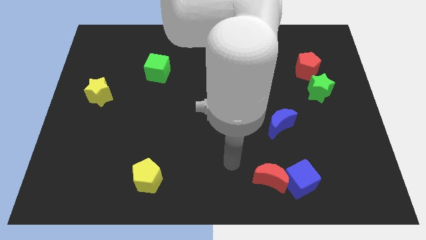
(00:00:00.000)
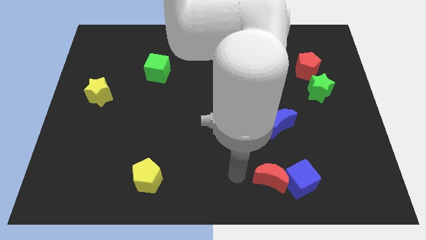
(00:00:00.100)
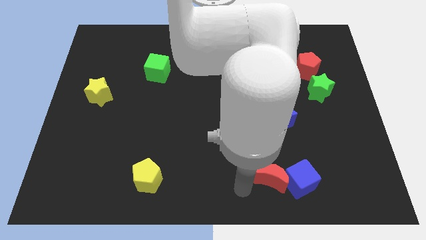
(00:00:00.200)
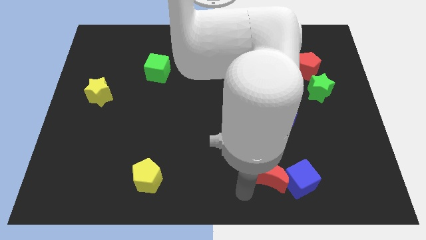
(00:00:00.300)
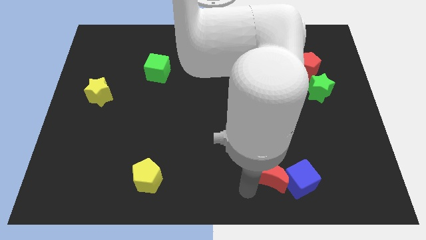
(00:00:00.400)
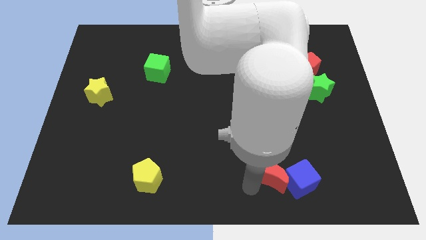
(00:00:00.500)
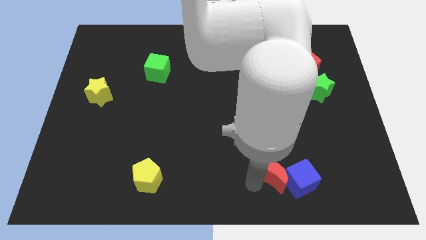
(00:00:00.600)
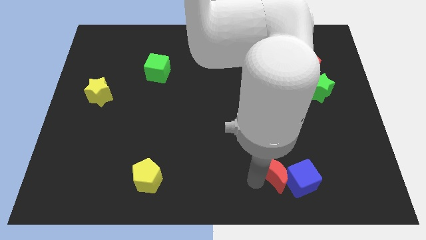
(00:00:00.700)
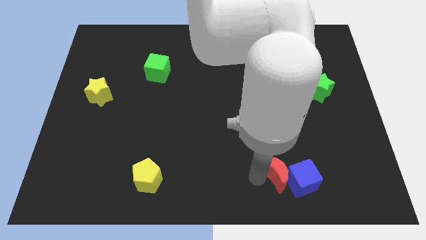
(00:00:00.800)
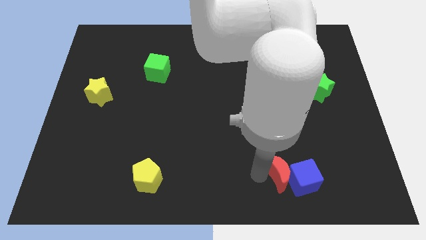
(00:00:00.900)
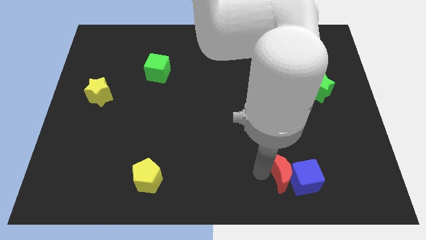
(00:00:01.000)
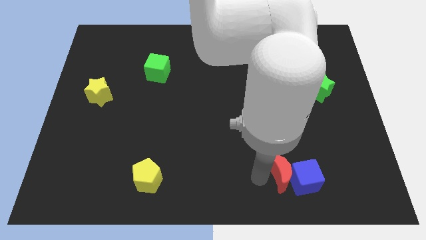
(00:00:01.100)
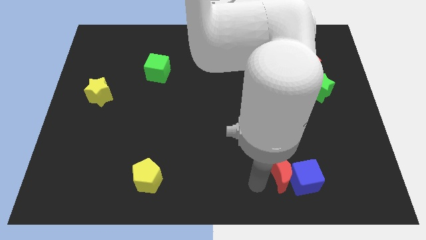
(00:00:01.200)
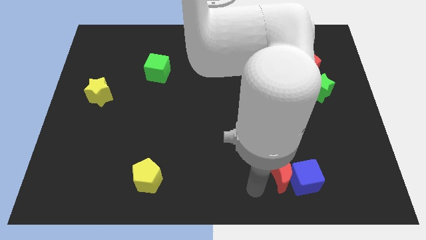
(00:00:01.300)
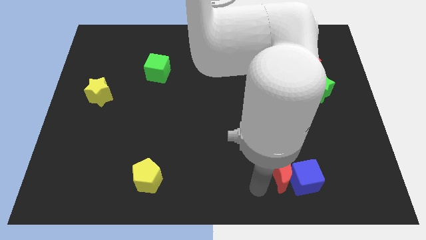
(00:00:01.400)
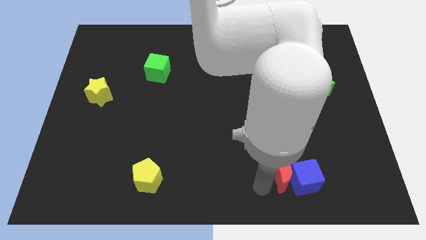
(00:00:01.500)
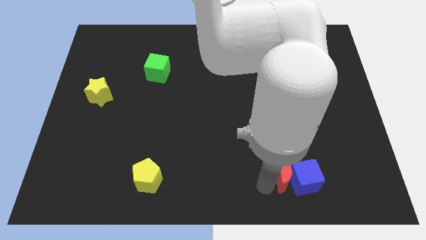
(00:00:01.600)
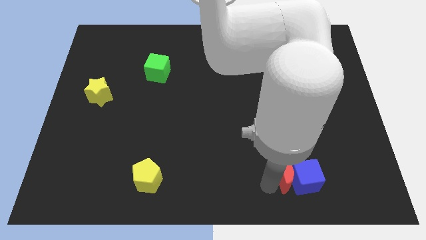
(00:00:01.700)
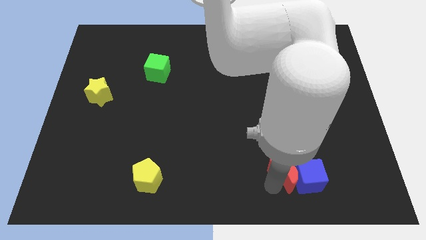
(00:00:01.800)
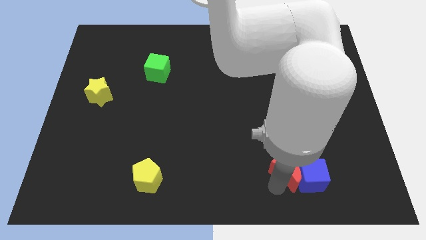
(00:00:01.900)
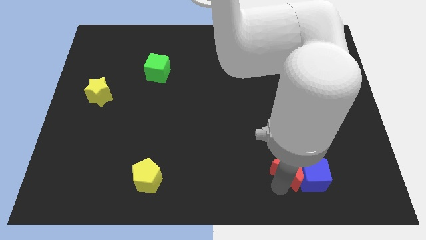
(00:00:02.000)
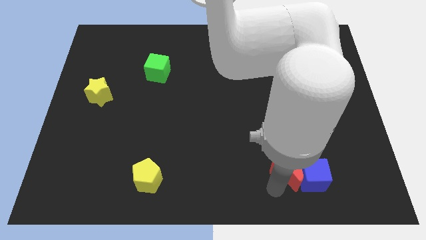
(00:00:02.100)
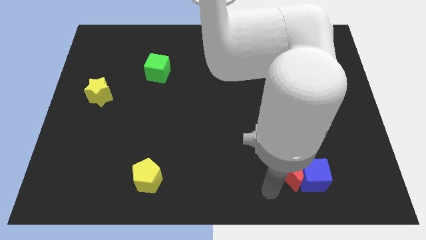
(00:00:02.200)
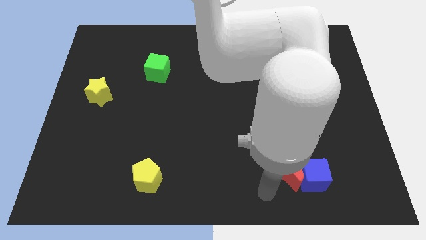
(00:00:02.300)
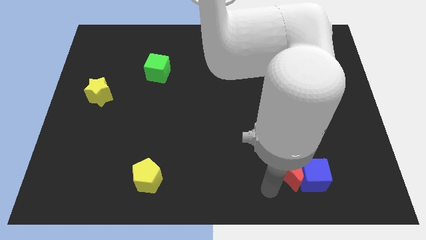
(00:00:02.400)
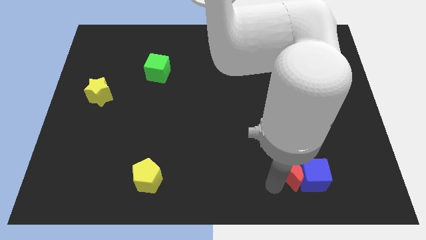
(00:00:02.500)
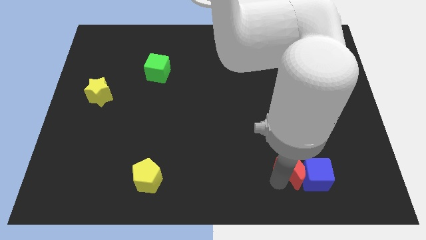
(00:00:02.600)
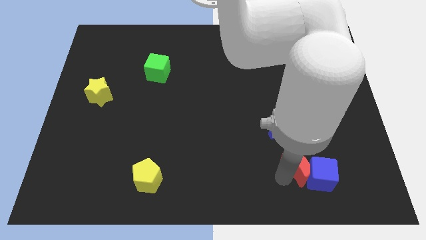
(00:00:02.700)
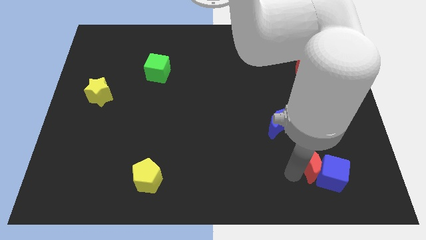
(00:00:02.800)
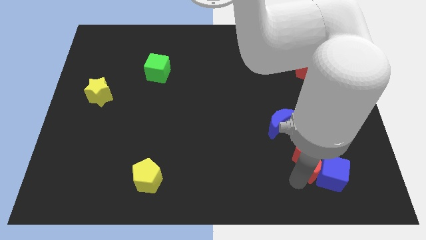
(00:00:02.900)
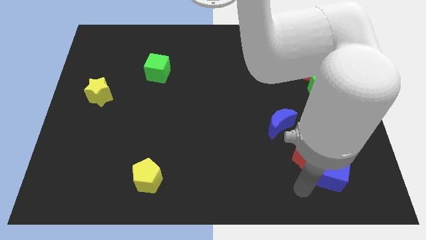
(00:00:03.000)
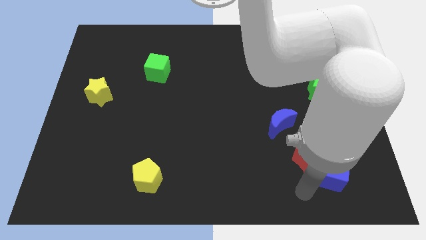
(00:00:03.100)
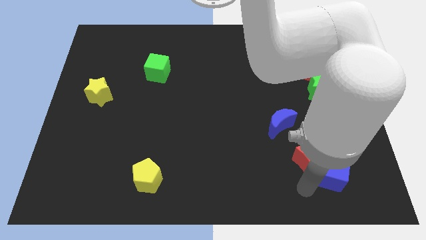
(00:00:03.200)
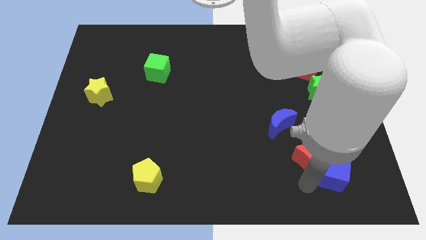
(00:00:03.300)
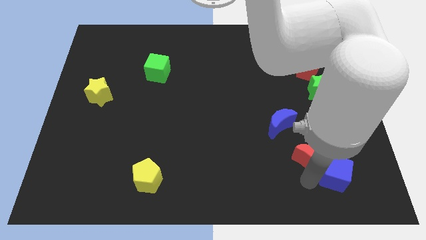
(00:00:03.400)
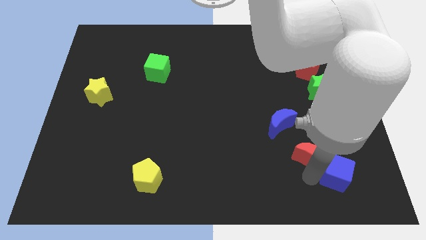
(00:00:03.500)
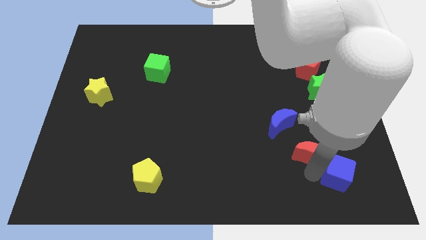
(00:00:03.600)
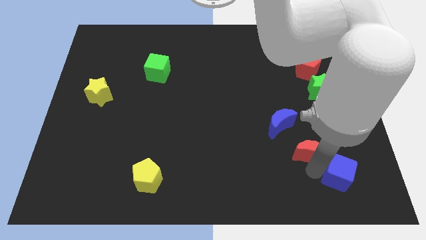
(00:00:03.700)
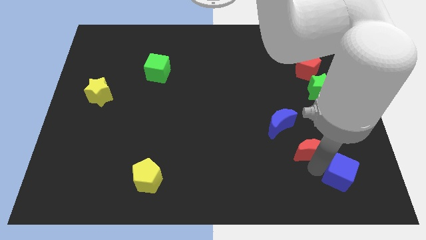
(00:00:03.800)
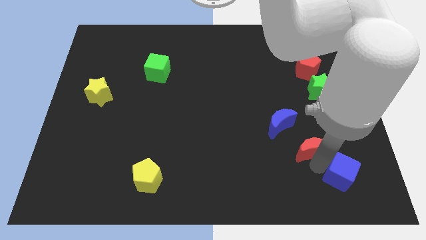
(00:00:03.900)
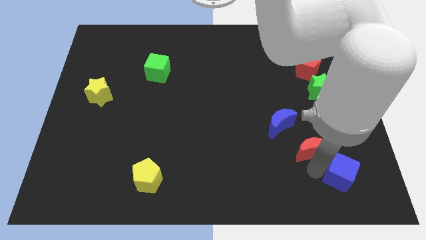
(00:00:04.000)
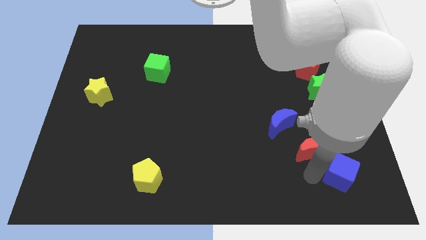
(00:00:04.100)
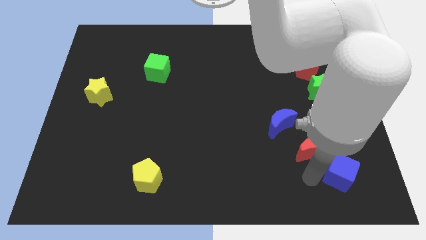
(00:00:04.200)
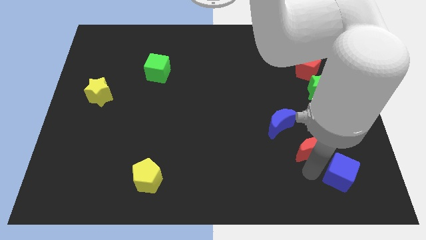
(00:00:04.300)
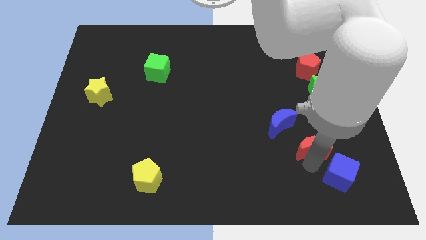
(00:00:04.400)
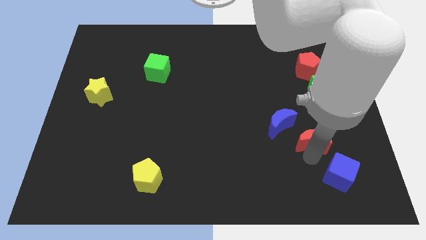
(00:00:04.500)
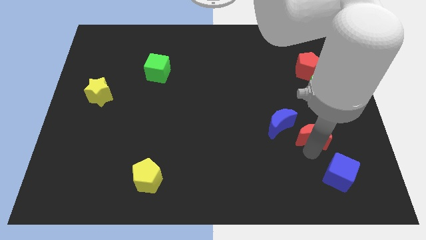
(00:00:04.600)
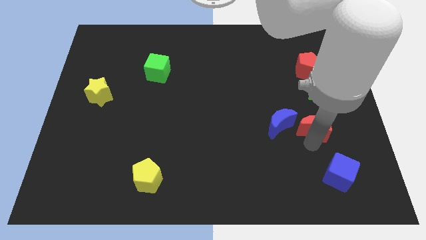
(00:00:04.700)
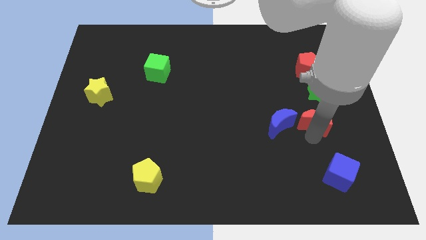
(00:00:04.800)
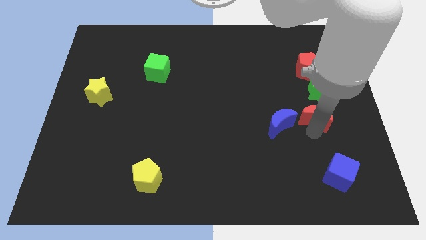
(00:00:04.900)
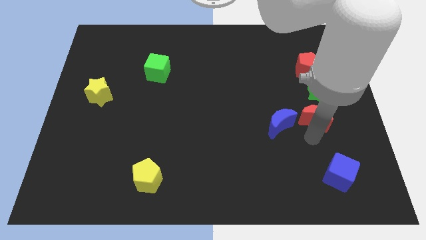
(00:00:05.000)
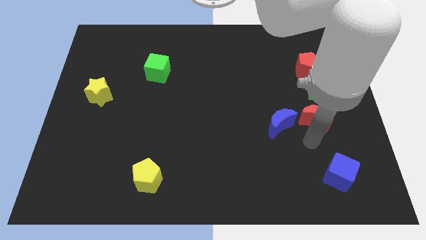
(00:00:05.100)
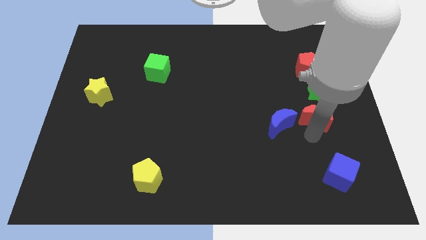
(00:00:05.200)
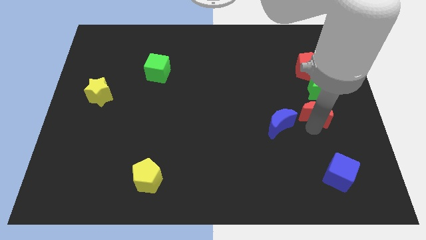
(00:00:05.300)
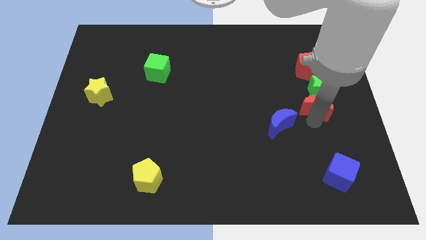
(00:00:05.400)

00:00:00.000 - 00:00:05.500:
push the red moon to the green star
